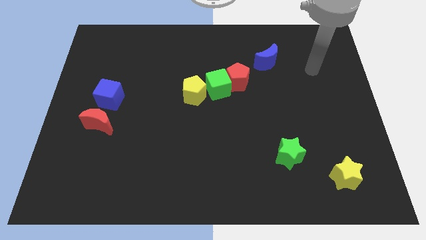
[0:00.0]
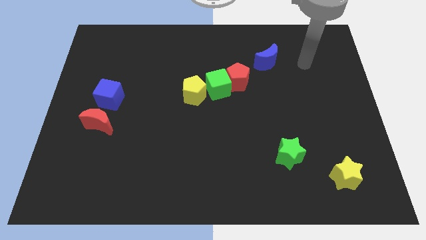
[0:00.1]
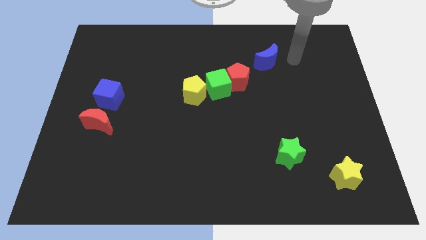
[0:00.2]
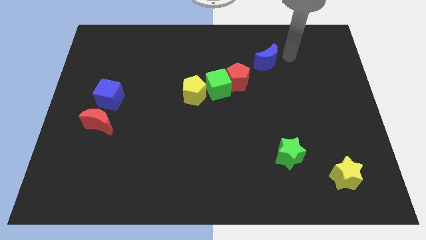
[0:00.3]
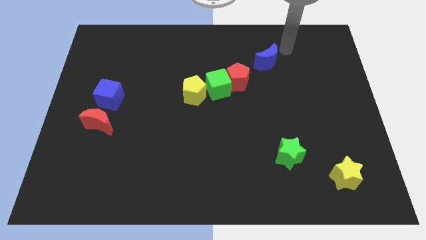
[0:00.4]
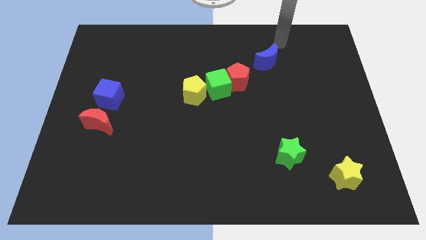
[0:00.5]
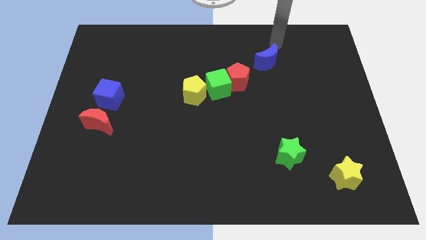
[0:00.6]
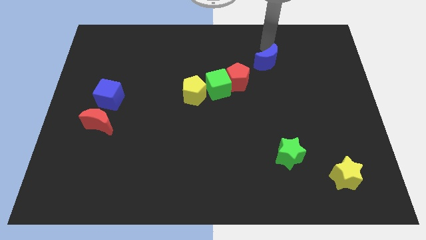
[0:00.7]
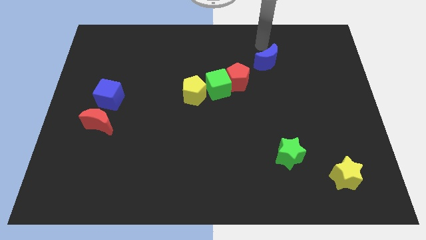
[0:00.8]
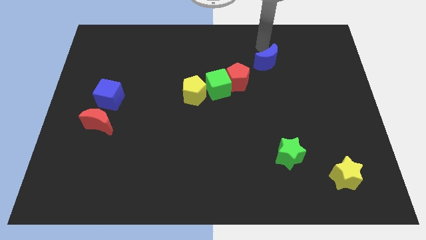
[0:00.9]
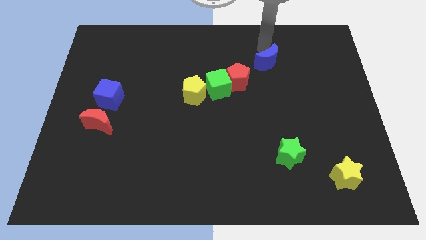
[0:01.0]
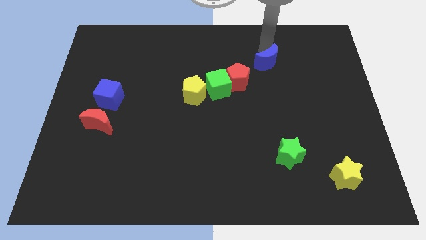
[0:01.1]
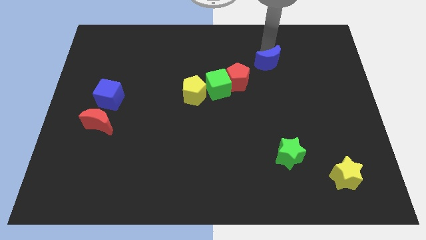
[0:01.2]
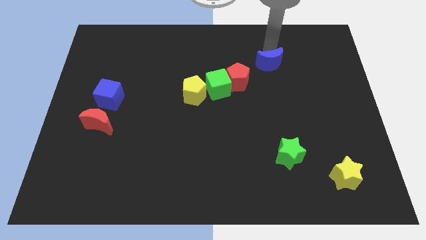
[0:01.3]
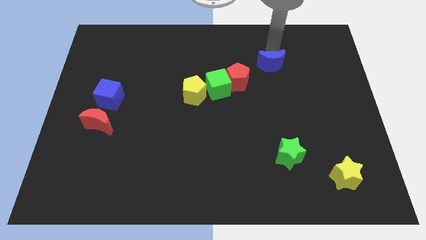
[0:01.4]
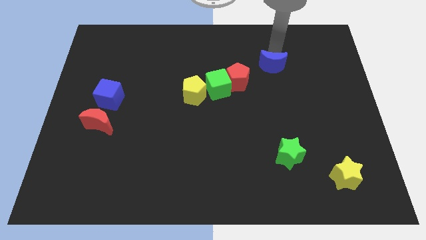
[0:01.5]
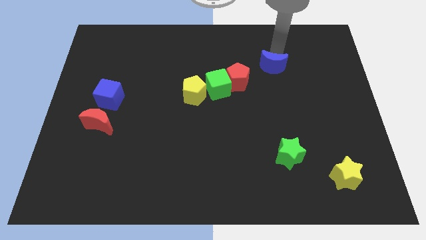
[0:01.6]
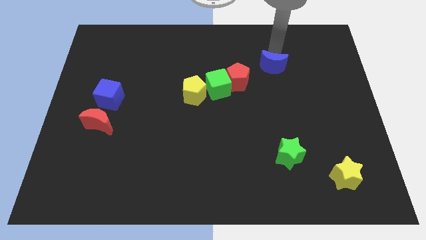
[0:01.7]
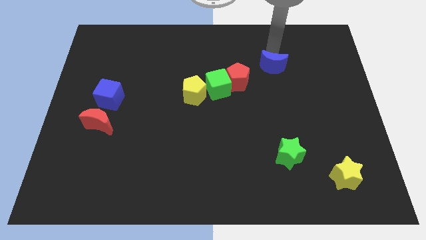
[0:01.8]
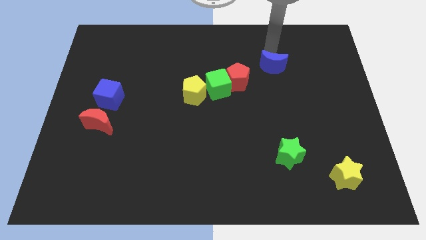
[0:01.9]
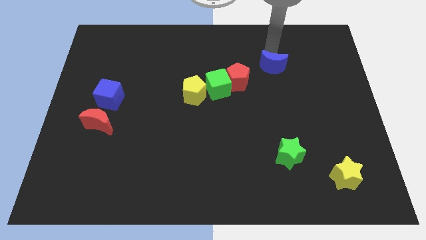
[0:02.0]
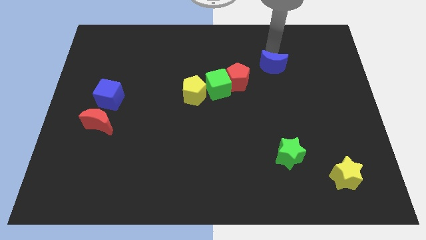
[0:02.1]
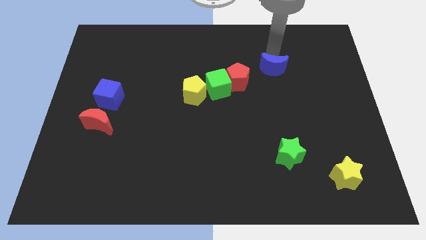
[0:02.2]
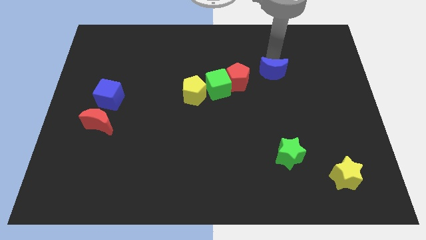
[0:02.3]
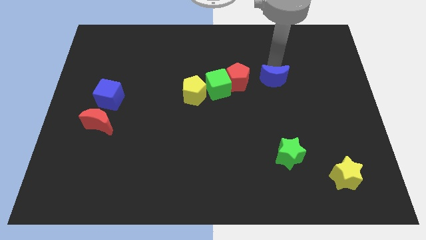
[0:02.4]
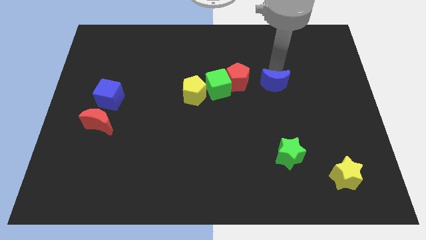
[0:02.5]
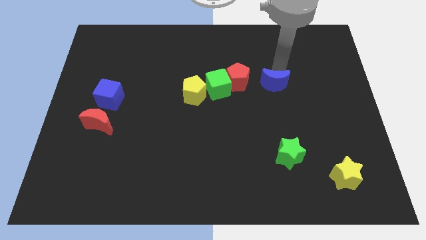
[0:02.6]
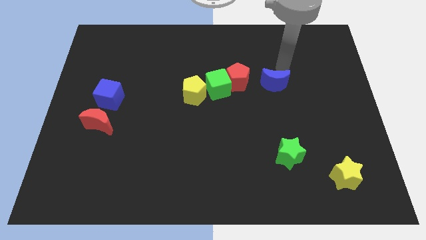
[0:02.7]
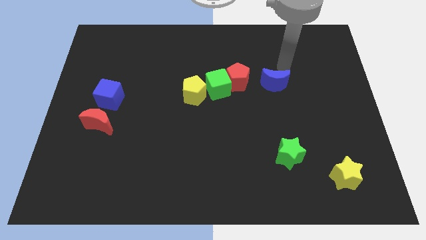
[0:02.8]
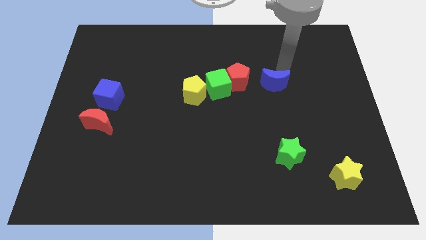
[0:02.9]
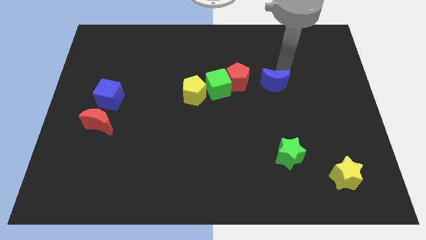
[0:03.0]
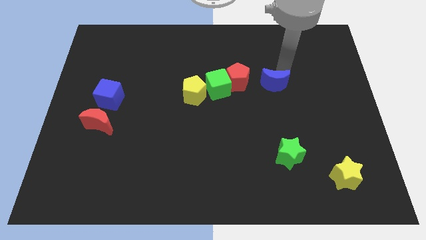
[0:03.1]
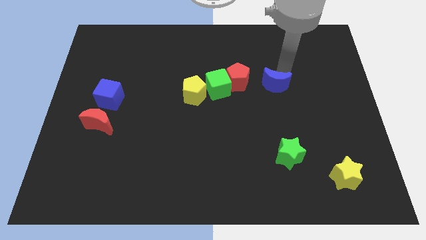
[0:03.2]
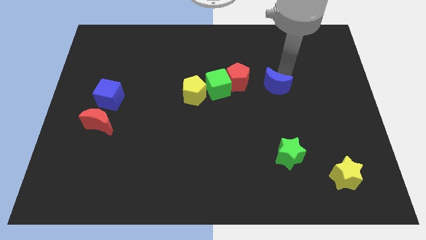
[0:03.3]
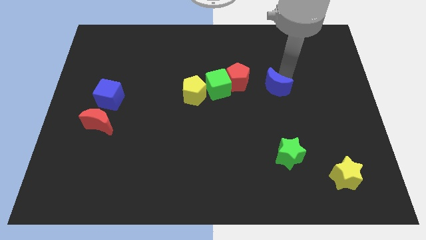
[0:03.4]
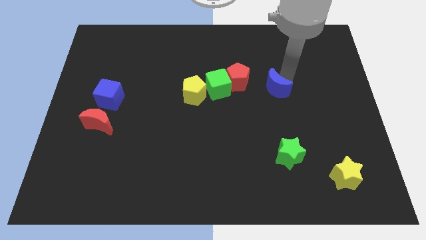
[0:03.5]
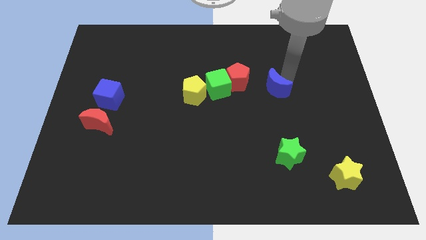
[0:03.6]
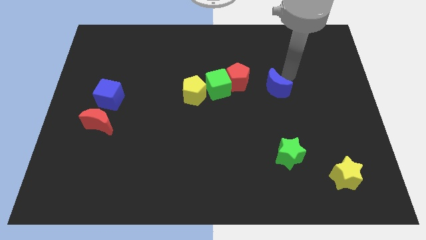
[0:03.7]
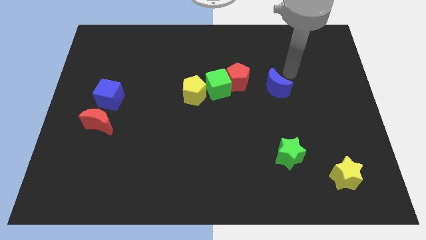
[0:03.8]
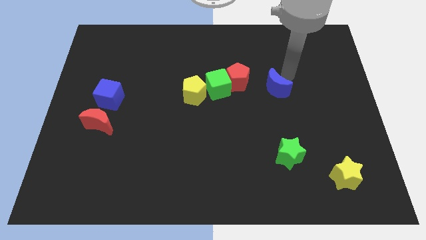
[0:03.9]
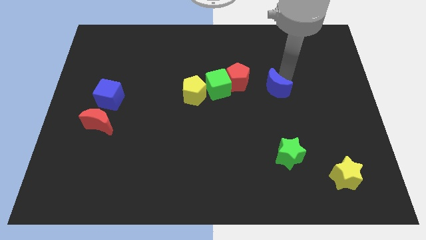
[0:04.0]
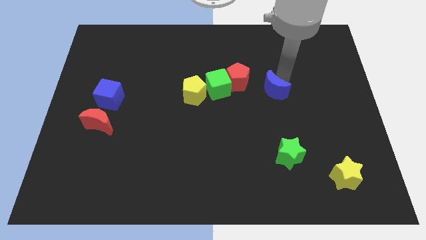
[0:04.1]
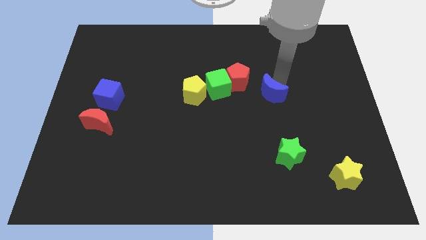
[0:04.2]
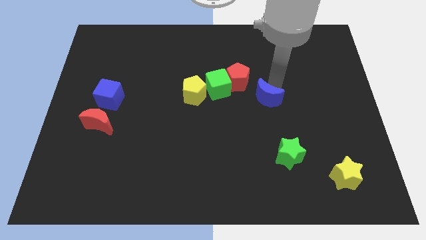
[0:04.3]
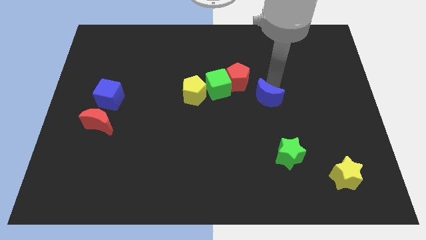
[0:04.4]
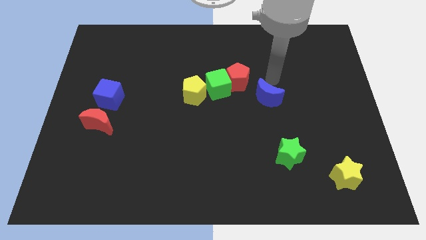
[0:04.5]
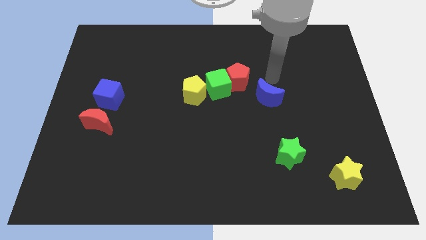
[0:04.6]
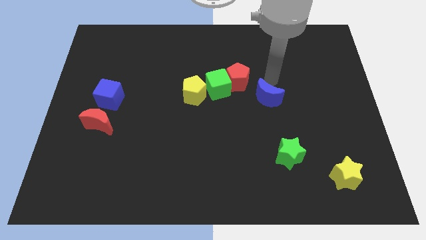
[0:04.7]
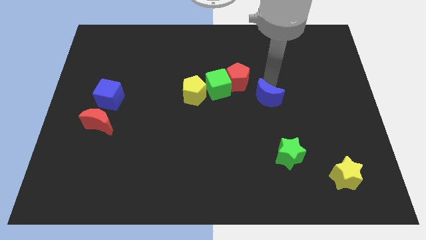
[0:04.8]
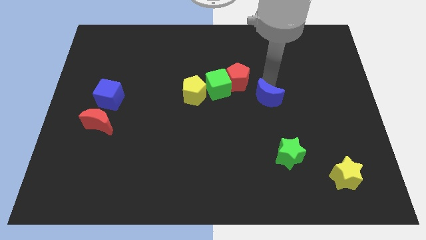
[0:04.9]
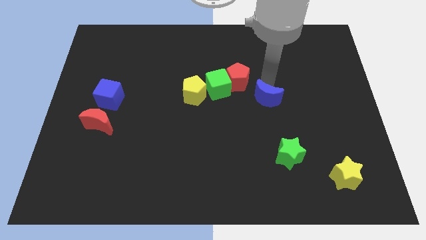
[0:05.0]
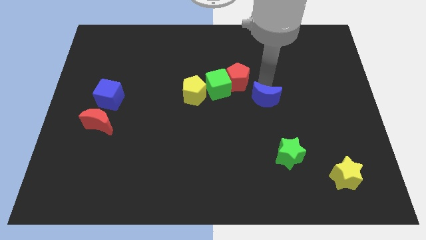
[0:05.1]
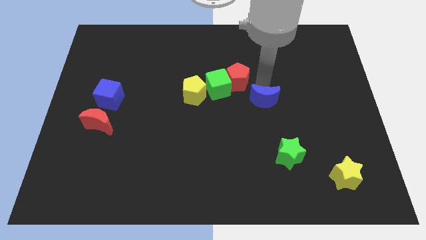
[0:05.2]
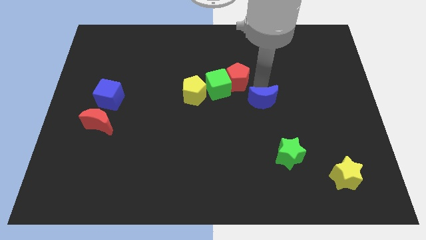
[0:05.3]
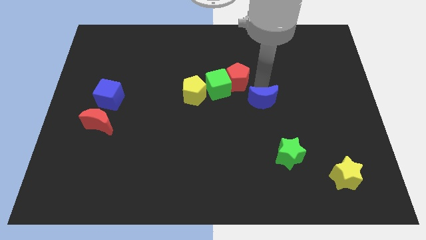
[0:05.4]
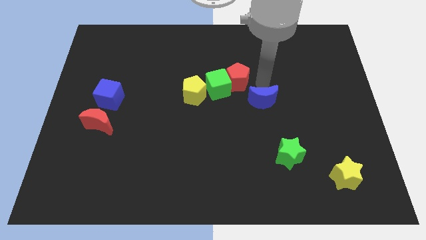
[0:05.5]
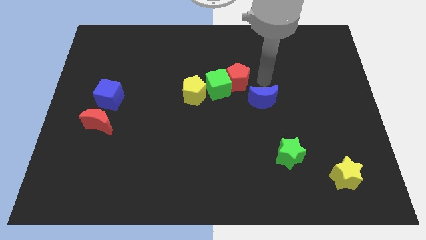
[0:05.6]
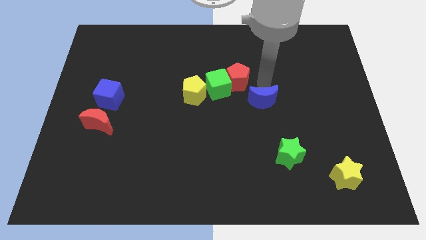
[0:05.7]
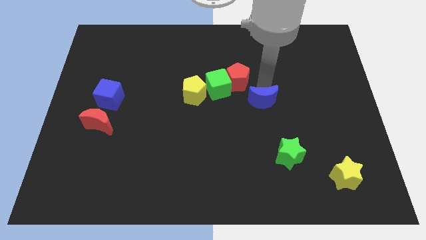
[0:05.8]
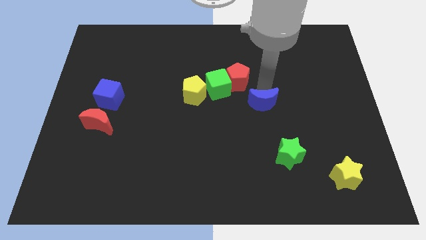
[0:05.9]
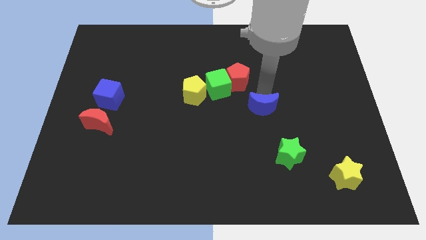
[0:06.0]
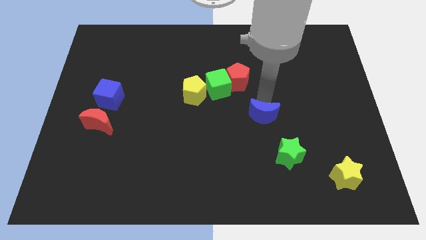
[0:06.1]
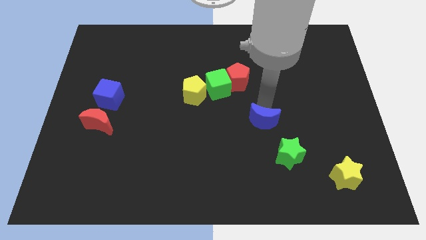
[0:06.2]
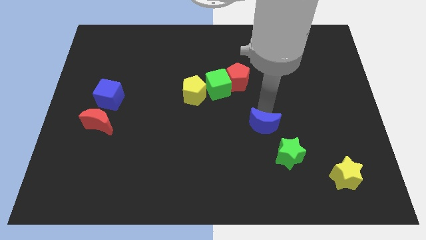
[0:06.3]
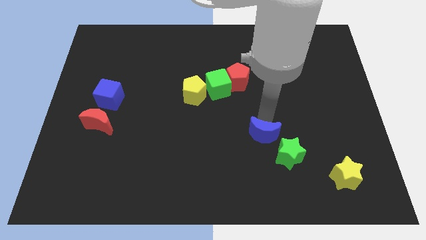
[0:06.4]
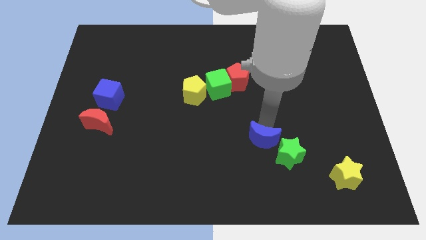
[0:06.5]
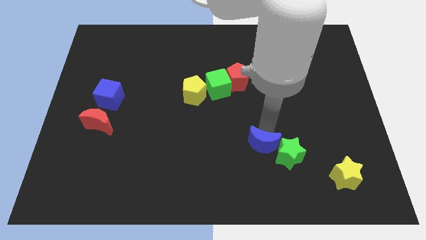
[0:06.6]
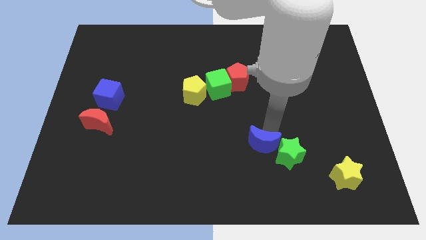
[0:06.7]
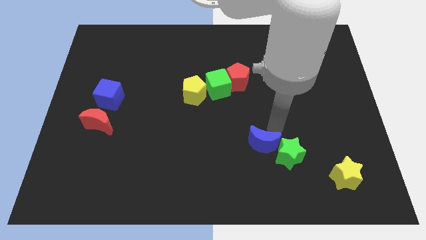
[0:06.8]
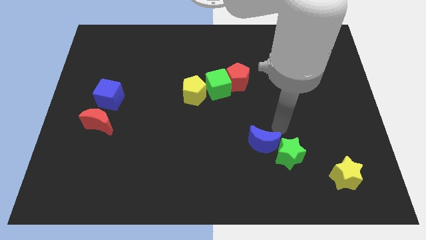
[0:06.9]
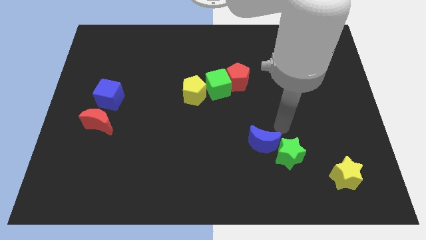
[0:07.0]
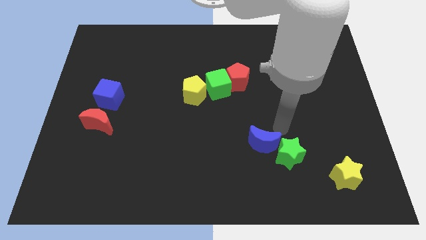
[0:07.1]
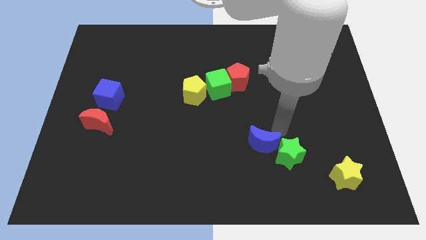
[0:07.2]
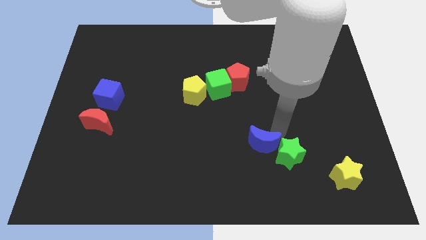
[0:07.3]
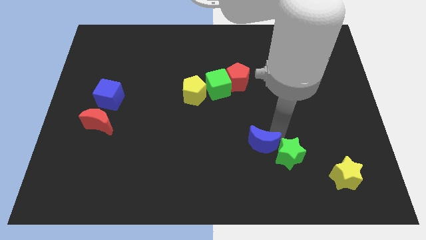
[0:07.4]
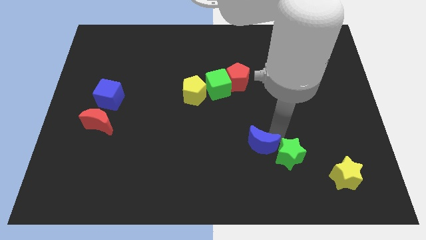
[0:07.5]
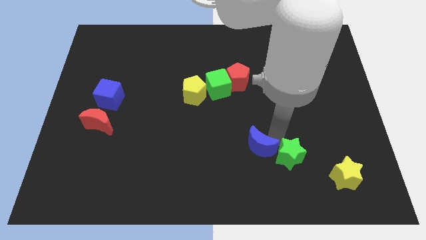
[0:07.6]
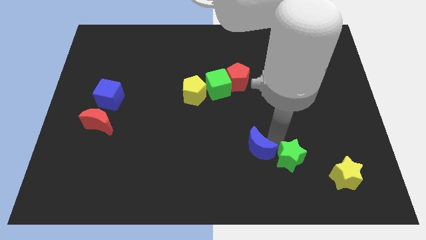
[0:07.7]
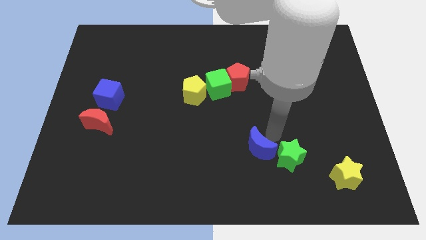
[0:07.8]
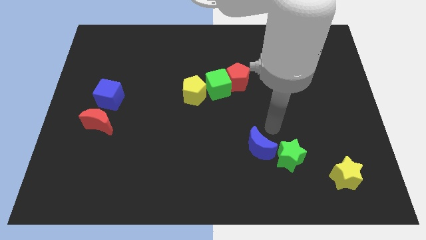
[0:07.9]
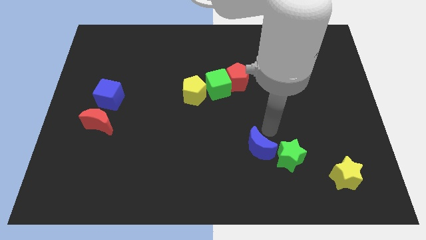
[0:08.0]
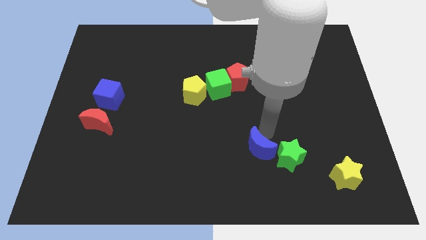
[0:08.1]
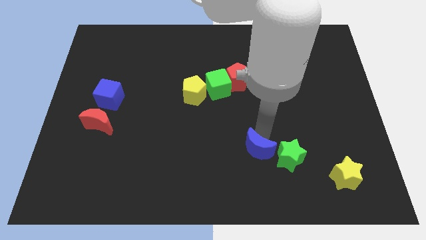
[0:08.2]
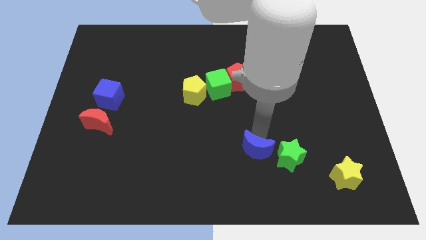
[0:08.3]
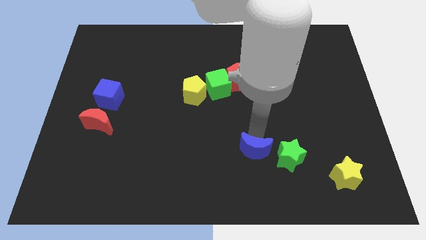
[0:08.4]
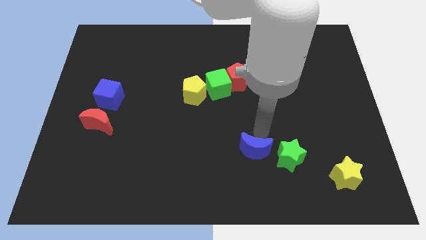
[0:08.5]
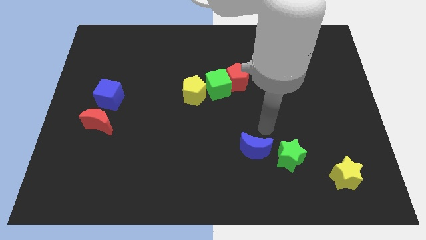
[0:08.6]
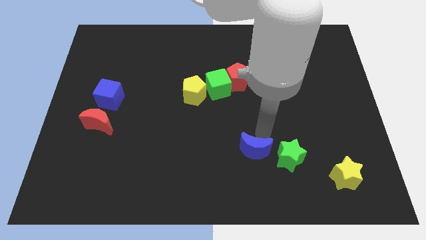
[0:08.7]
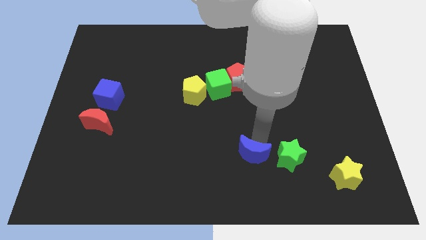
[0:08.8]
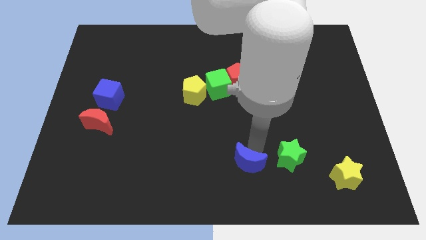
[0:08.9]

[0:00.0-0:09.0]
slide the blue moon to the bottom side
